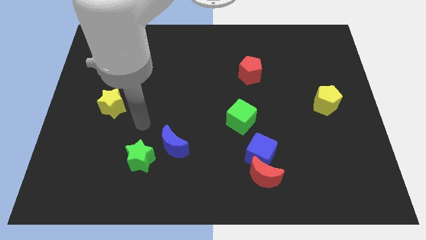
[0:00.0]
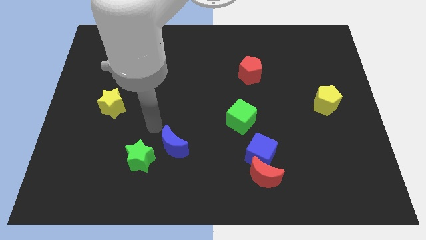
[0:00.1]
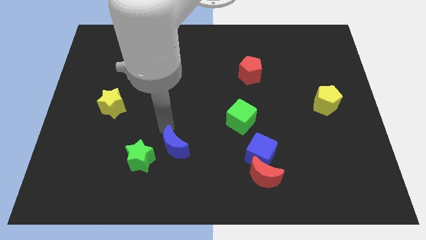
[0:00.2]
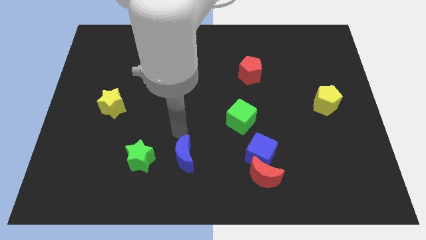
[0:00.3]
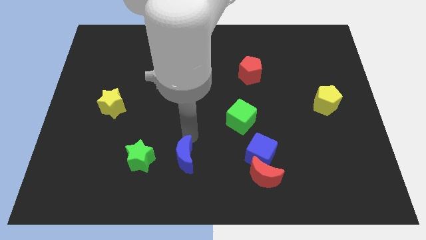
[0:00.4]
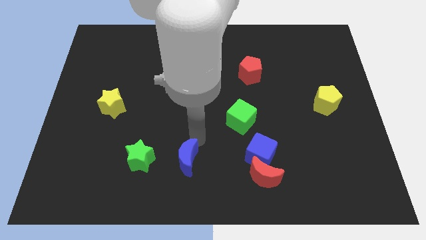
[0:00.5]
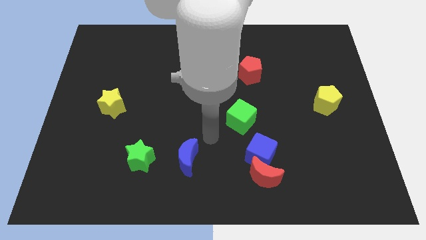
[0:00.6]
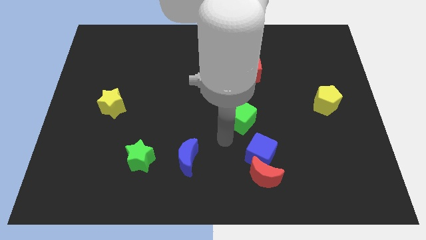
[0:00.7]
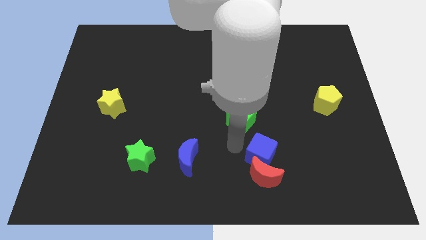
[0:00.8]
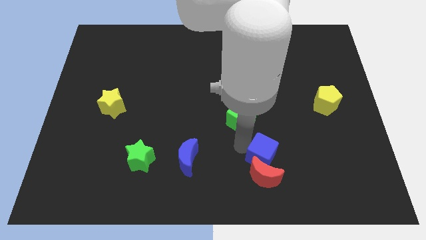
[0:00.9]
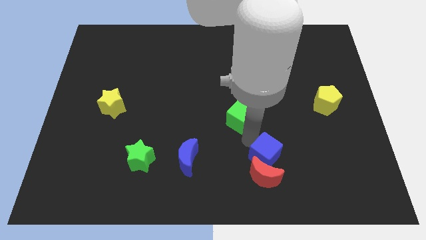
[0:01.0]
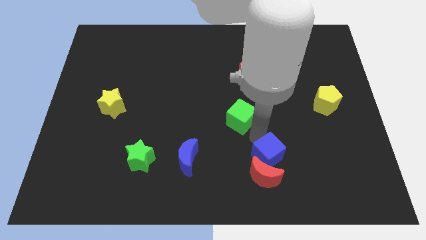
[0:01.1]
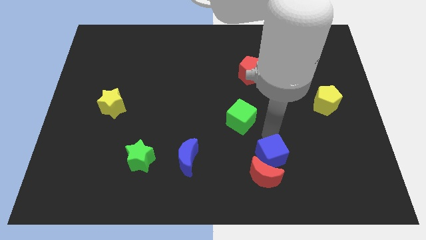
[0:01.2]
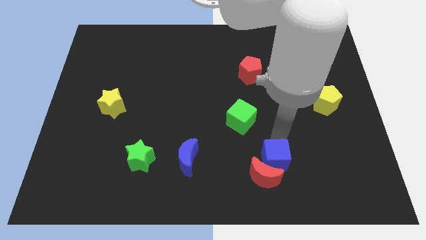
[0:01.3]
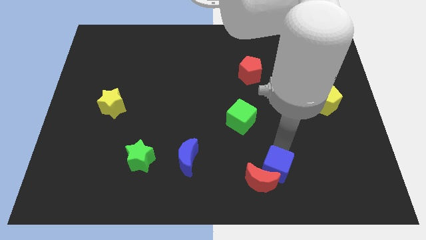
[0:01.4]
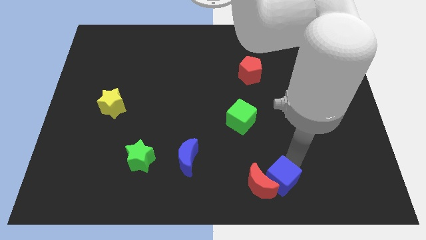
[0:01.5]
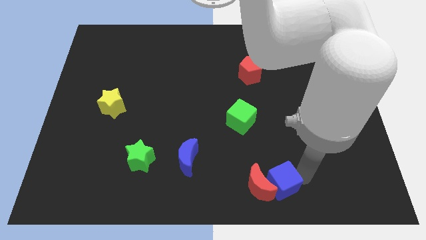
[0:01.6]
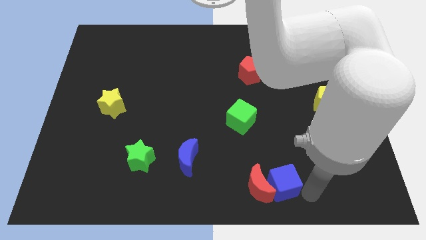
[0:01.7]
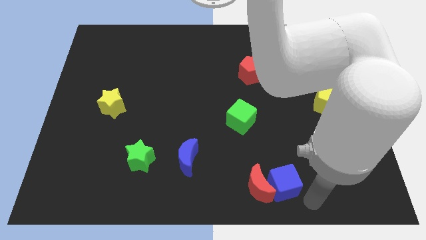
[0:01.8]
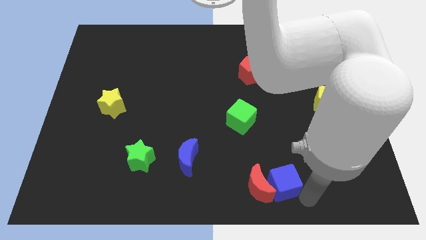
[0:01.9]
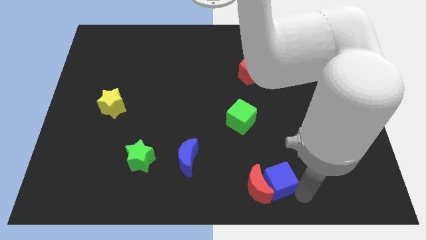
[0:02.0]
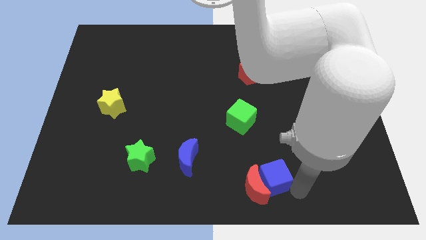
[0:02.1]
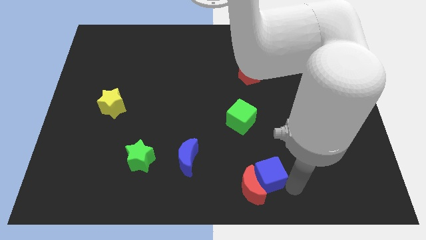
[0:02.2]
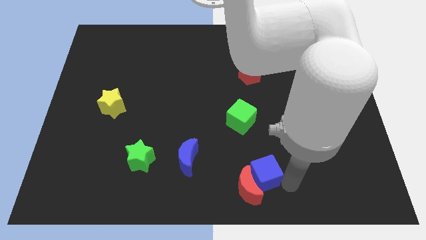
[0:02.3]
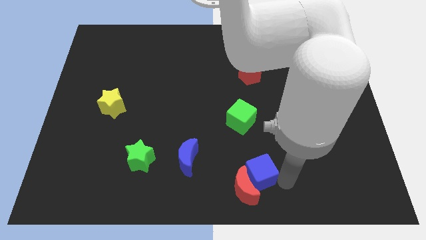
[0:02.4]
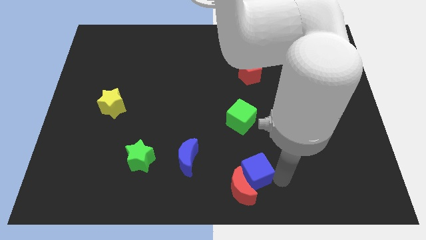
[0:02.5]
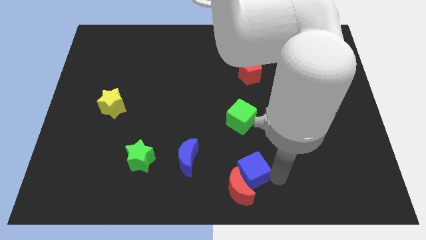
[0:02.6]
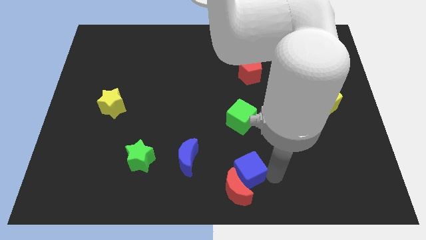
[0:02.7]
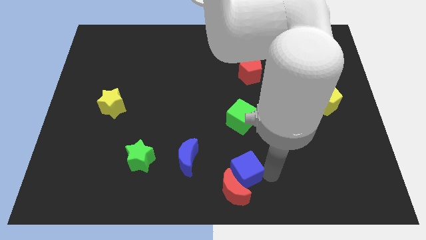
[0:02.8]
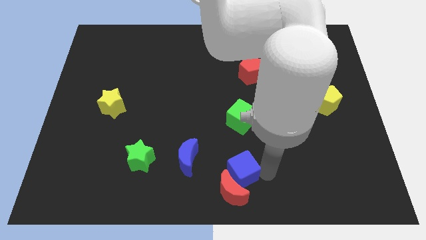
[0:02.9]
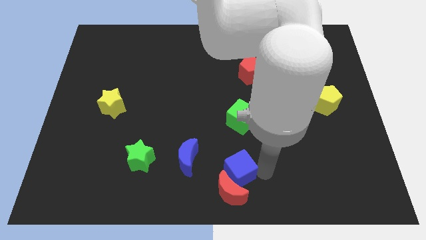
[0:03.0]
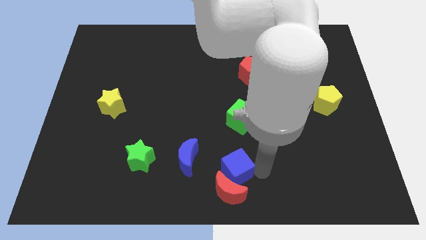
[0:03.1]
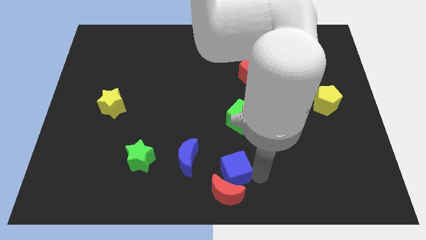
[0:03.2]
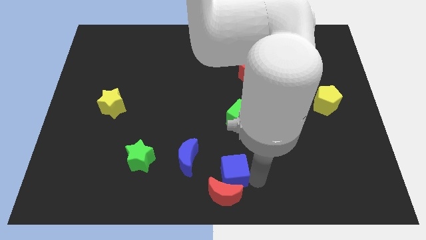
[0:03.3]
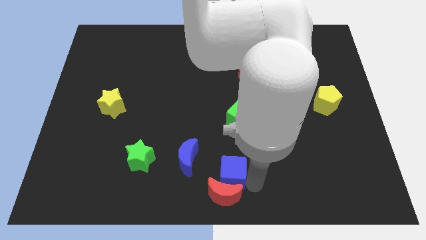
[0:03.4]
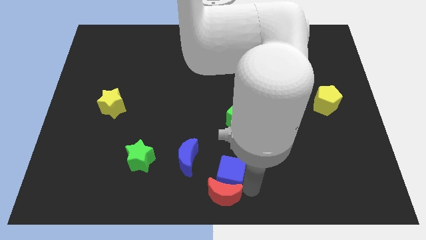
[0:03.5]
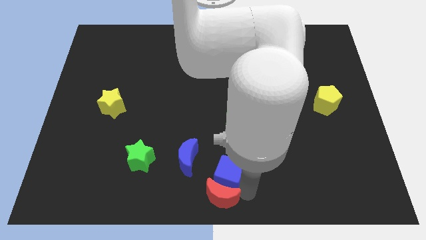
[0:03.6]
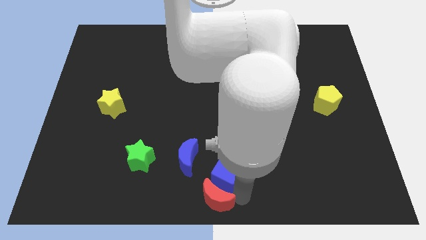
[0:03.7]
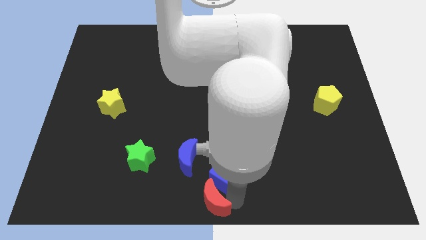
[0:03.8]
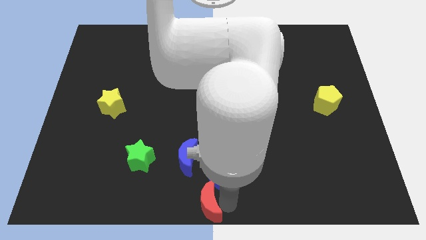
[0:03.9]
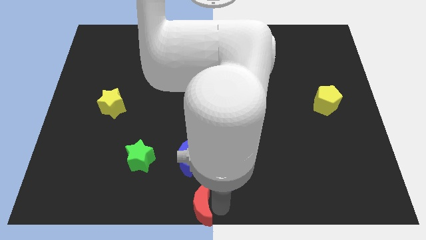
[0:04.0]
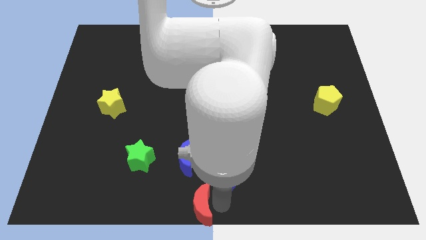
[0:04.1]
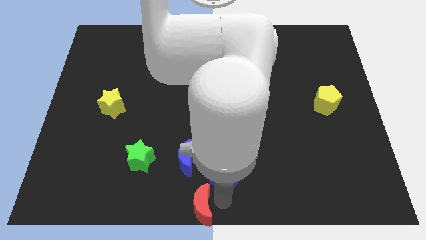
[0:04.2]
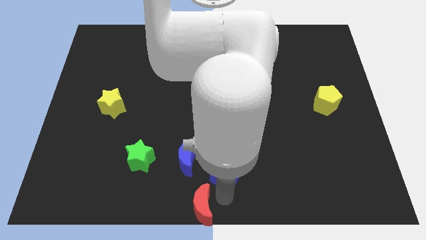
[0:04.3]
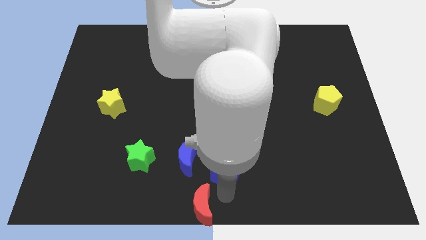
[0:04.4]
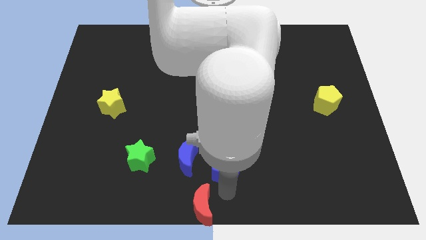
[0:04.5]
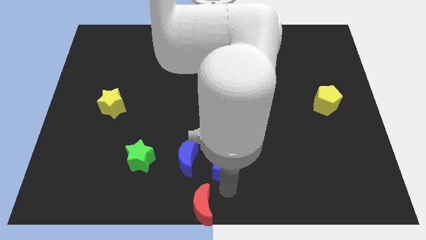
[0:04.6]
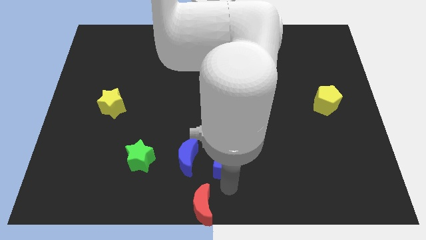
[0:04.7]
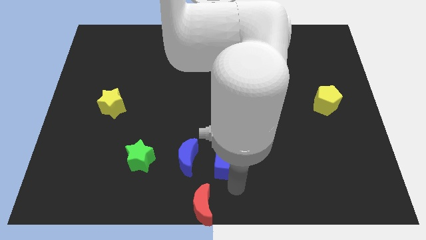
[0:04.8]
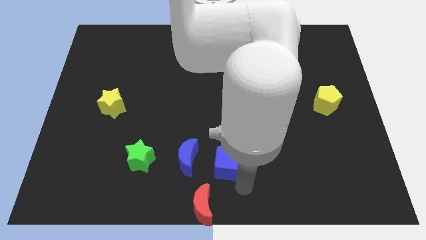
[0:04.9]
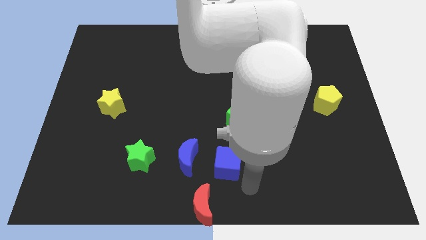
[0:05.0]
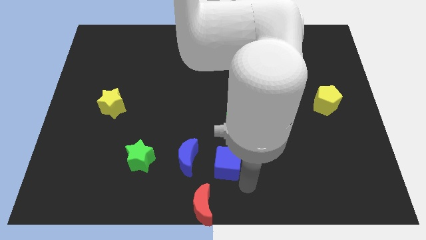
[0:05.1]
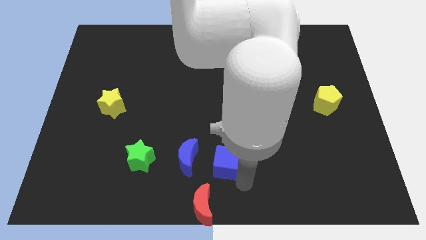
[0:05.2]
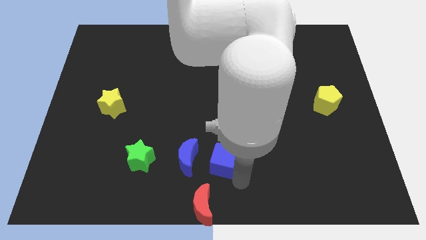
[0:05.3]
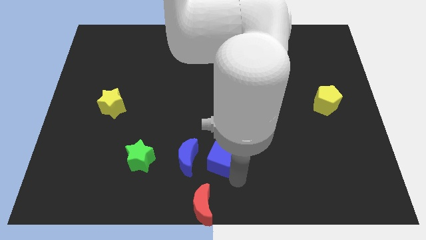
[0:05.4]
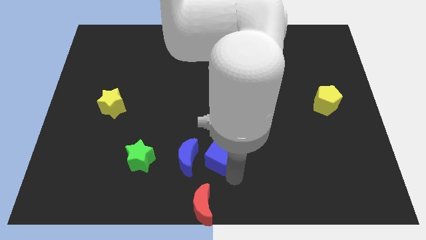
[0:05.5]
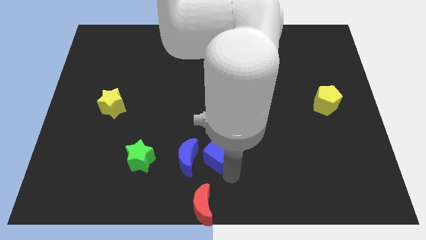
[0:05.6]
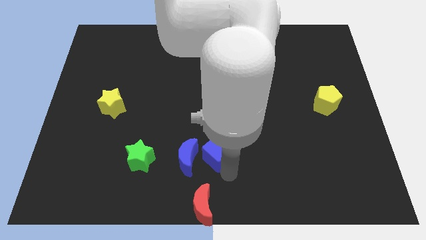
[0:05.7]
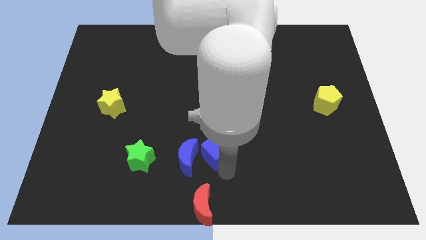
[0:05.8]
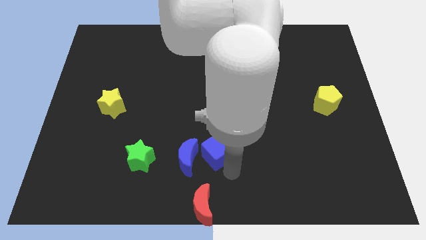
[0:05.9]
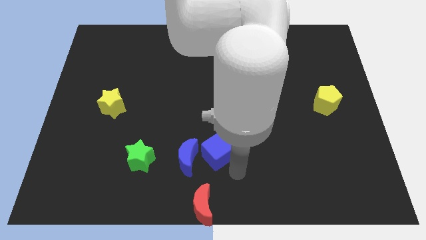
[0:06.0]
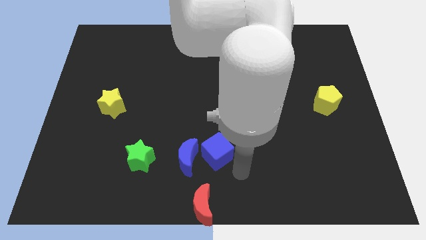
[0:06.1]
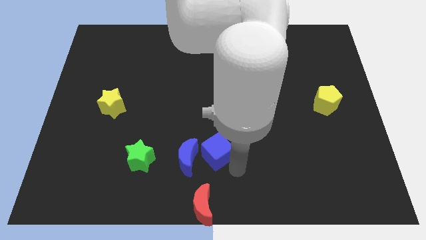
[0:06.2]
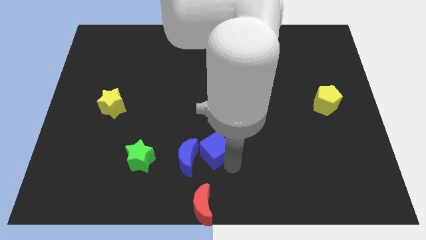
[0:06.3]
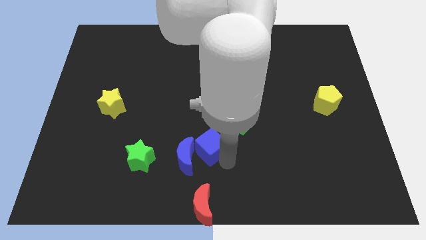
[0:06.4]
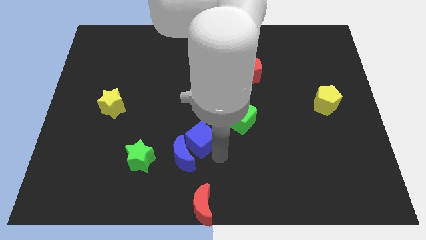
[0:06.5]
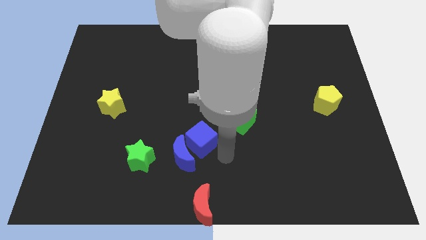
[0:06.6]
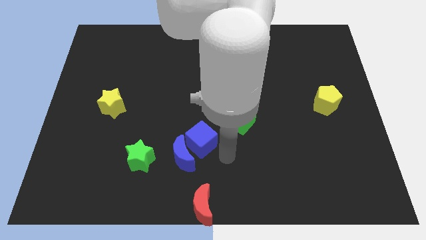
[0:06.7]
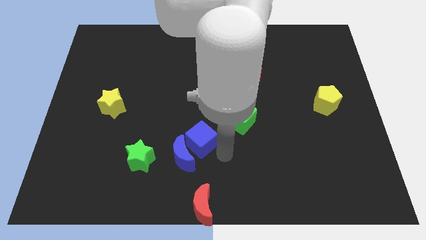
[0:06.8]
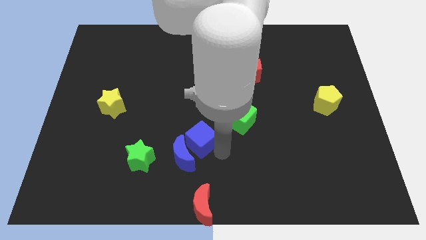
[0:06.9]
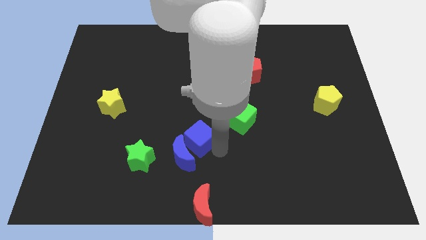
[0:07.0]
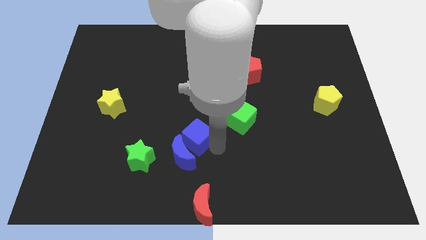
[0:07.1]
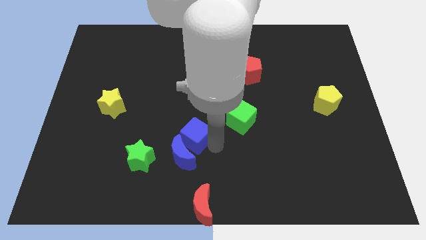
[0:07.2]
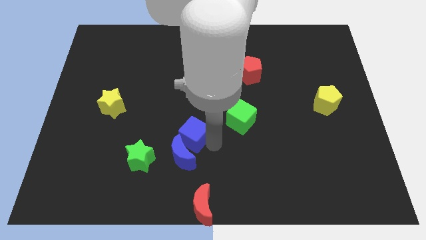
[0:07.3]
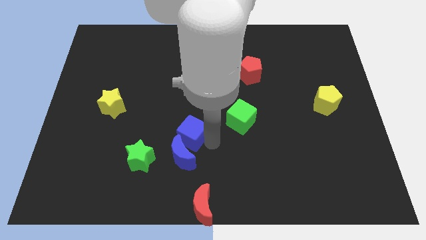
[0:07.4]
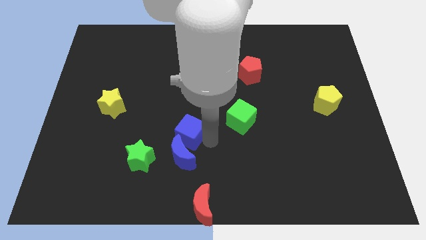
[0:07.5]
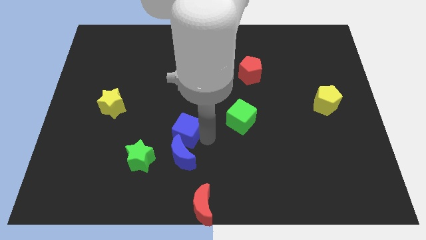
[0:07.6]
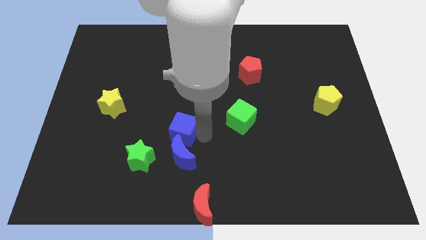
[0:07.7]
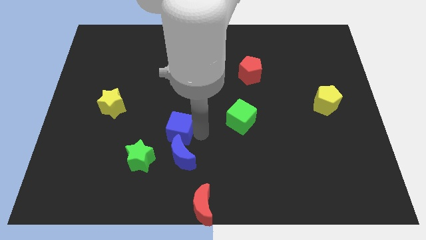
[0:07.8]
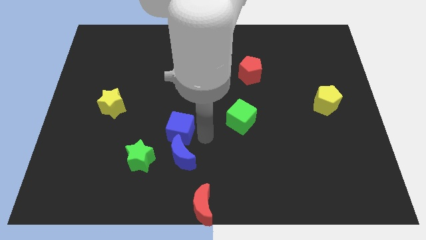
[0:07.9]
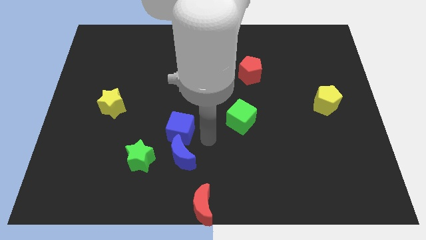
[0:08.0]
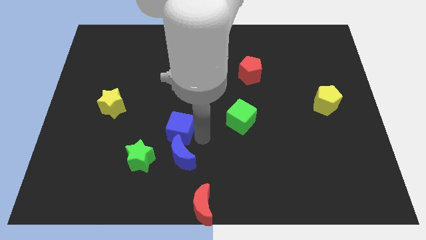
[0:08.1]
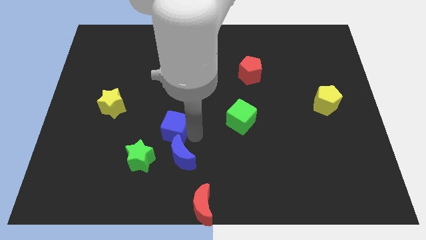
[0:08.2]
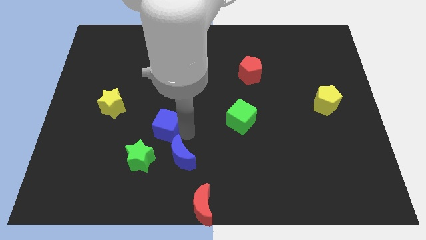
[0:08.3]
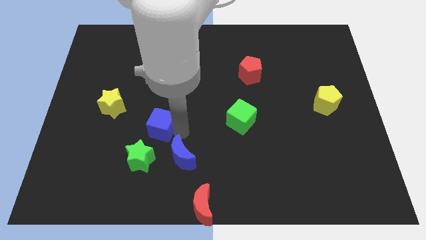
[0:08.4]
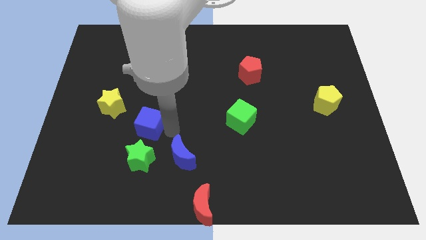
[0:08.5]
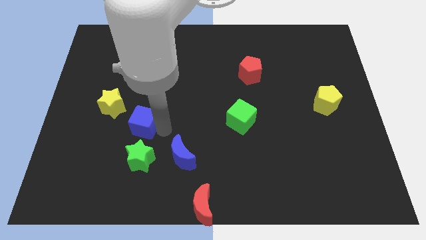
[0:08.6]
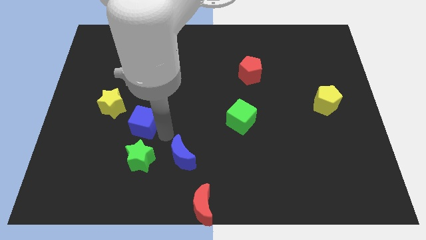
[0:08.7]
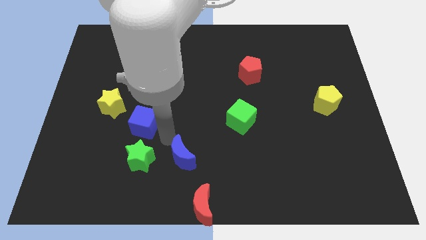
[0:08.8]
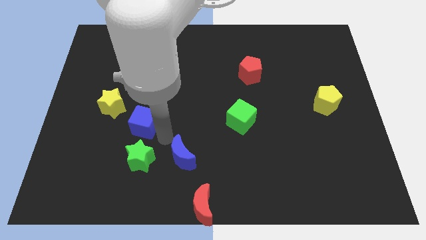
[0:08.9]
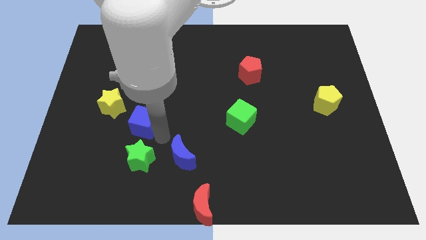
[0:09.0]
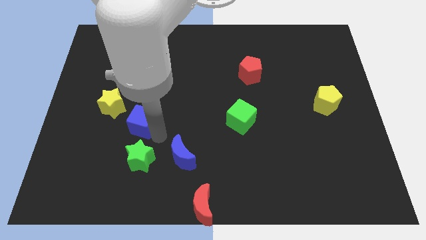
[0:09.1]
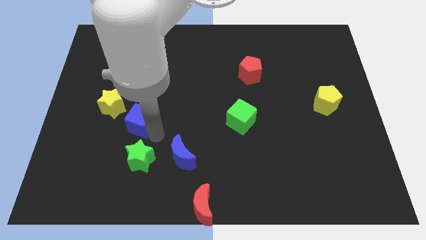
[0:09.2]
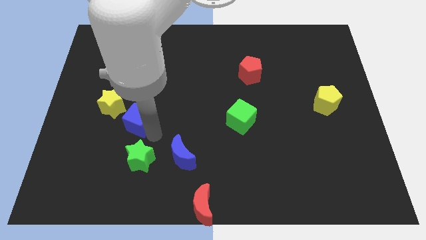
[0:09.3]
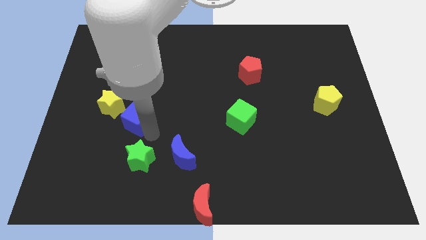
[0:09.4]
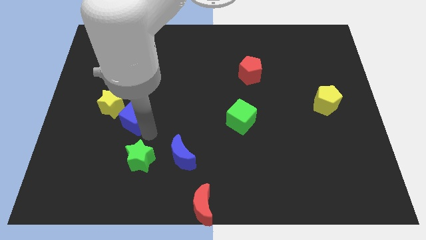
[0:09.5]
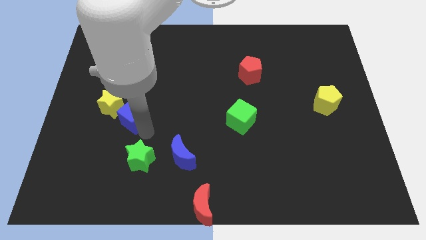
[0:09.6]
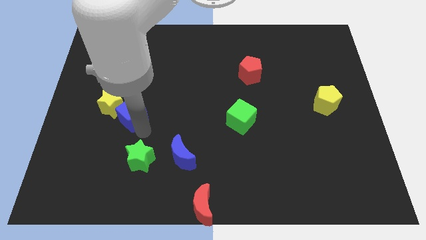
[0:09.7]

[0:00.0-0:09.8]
slide the blue cube to the yellow star
